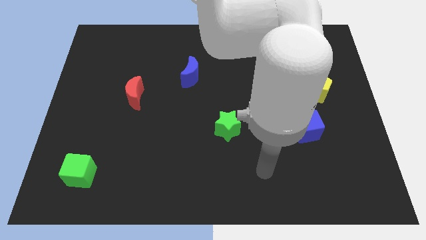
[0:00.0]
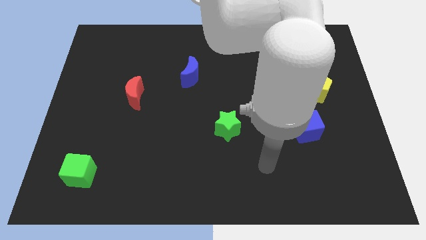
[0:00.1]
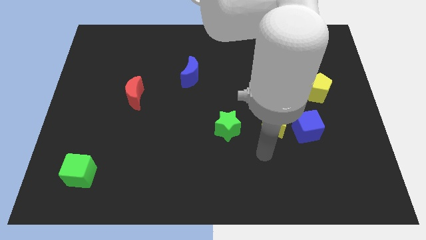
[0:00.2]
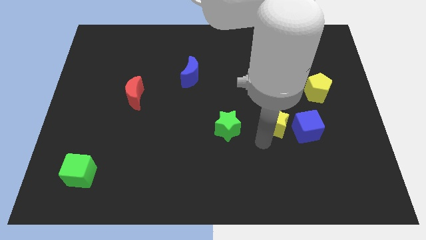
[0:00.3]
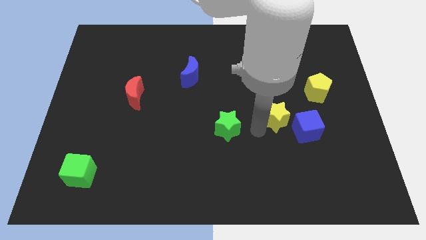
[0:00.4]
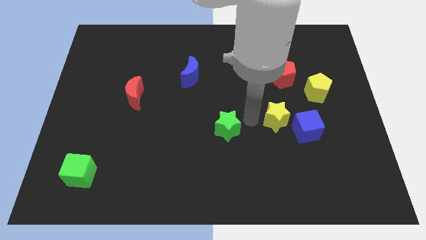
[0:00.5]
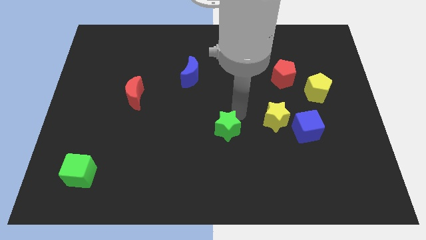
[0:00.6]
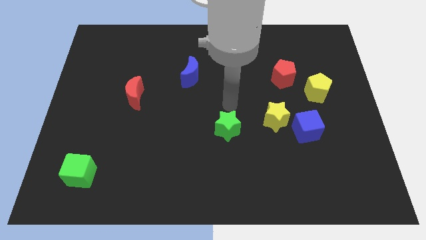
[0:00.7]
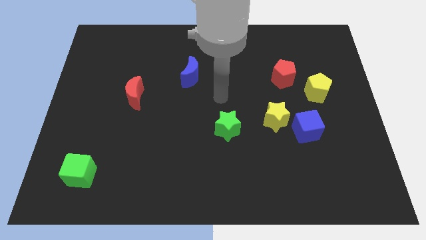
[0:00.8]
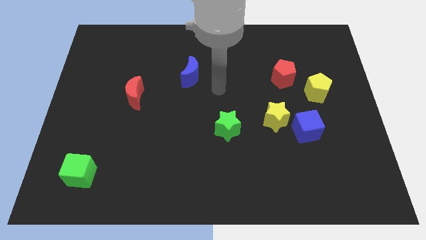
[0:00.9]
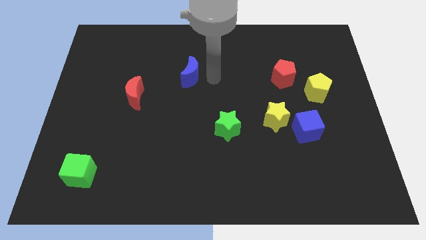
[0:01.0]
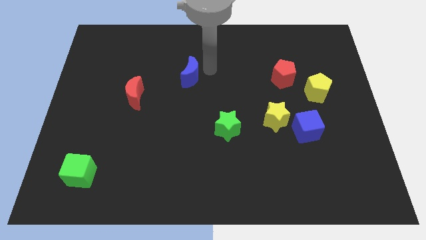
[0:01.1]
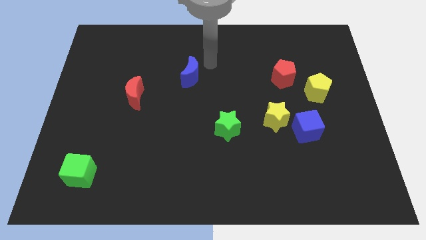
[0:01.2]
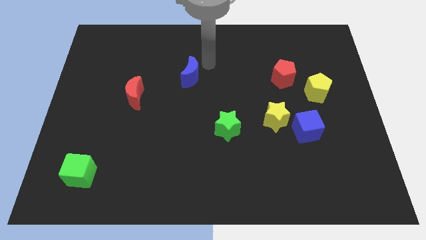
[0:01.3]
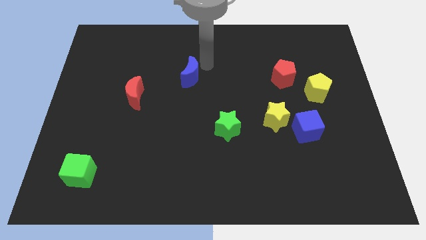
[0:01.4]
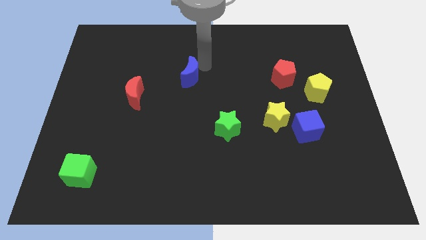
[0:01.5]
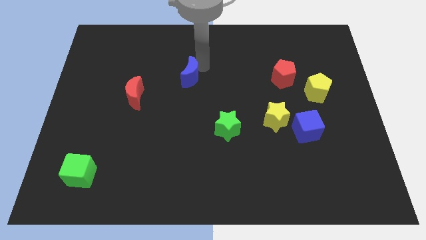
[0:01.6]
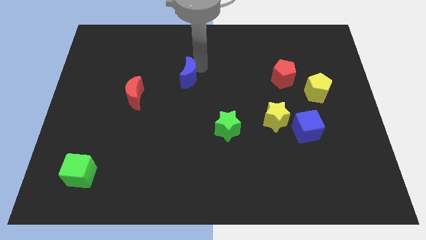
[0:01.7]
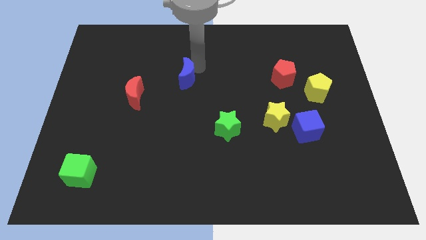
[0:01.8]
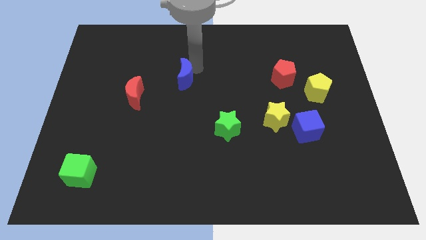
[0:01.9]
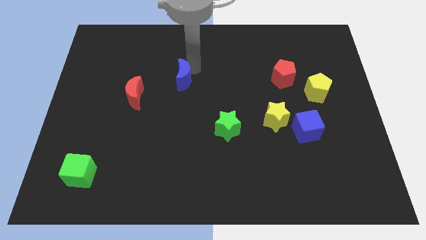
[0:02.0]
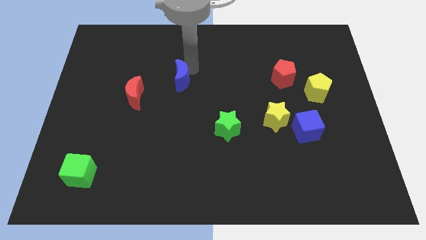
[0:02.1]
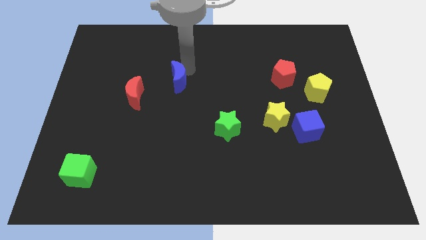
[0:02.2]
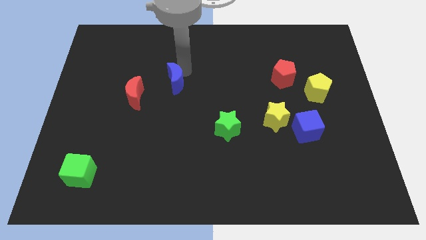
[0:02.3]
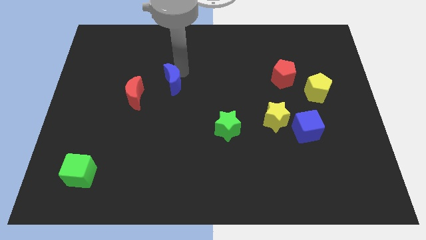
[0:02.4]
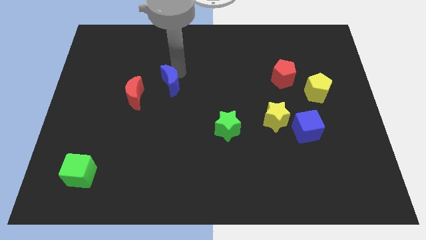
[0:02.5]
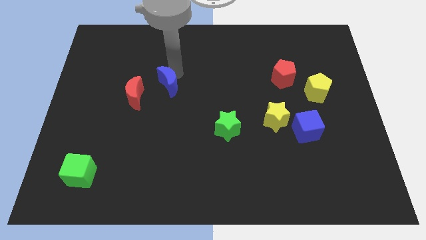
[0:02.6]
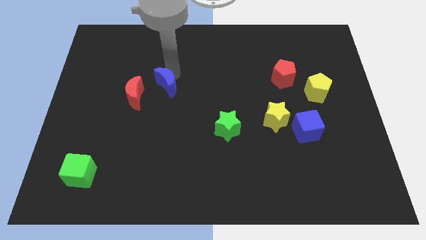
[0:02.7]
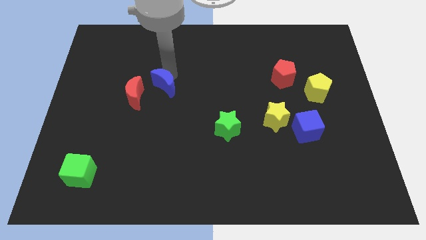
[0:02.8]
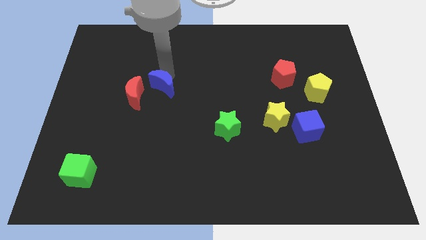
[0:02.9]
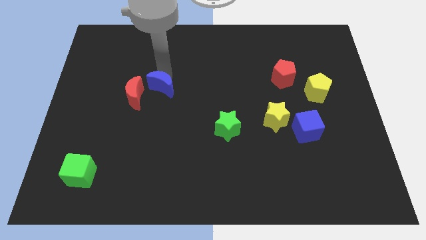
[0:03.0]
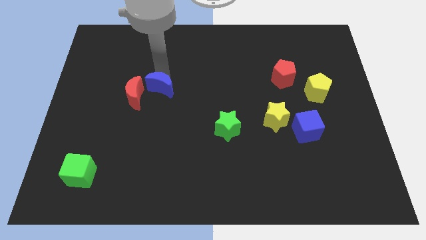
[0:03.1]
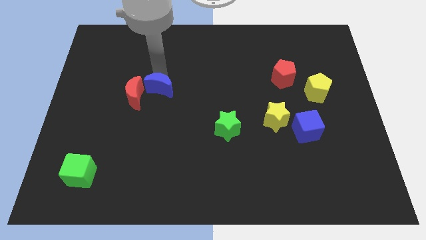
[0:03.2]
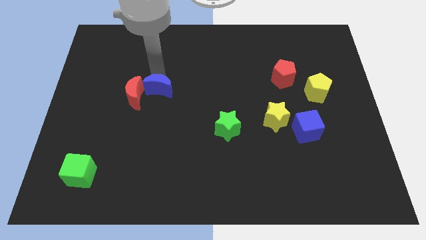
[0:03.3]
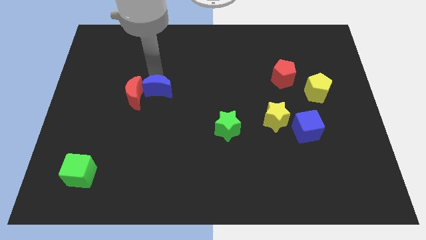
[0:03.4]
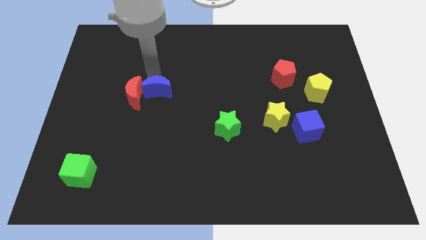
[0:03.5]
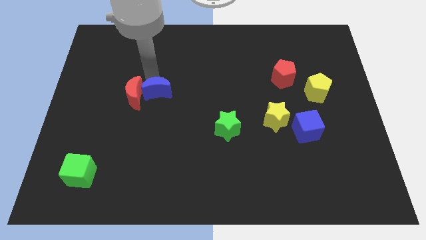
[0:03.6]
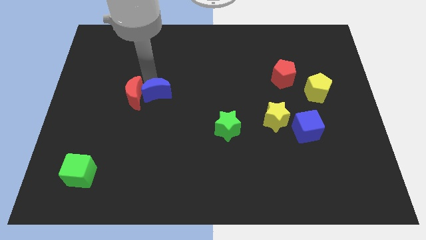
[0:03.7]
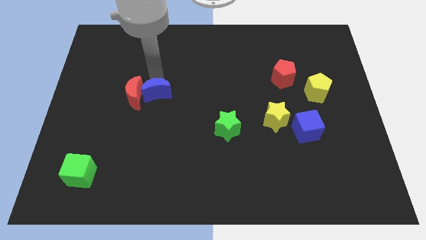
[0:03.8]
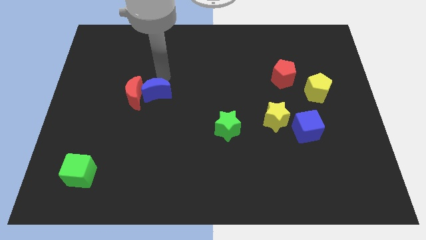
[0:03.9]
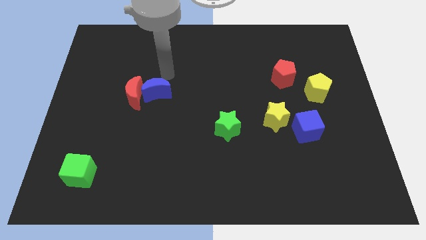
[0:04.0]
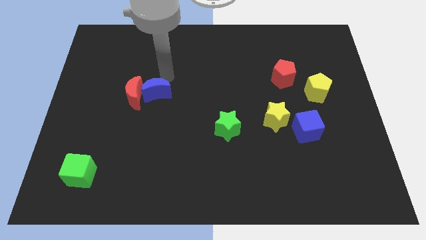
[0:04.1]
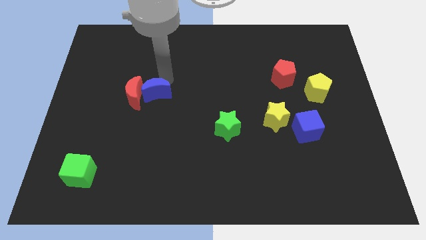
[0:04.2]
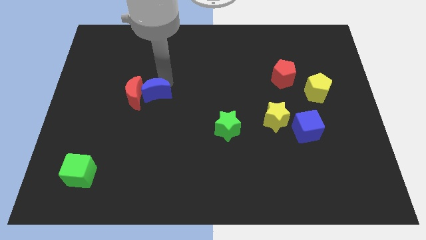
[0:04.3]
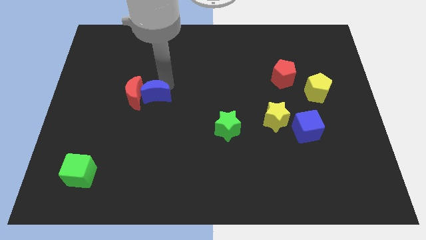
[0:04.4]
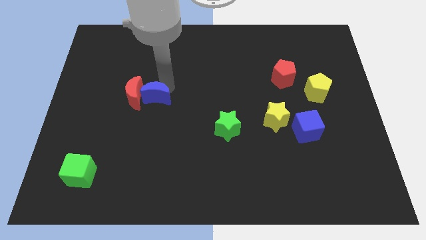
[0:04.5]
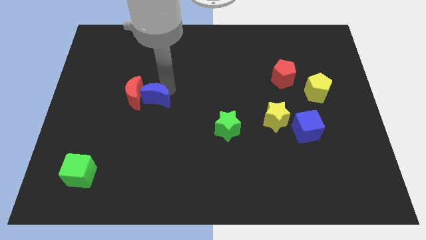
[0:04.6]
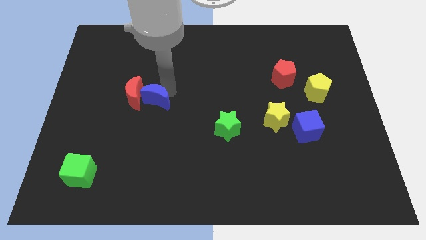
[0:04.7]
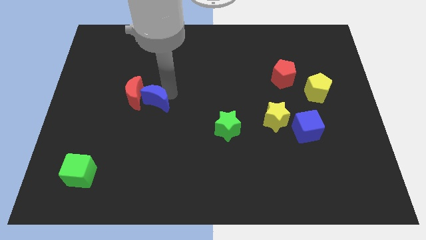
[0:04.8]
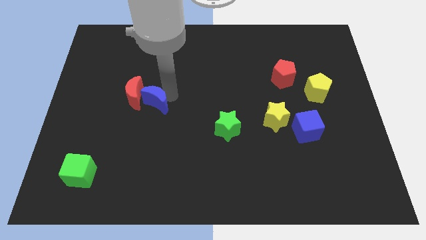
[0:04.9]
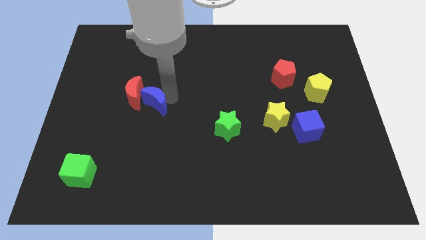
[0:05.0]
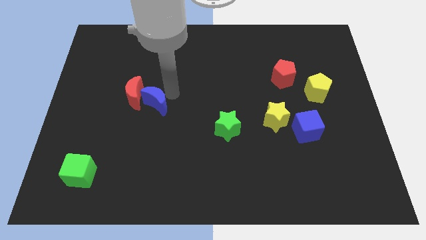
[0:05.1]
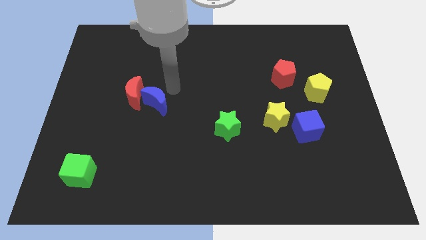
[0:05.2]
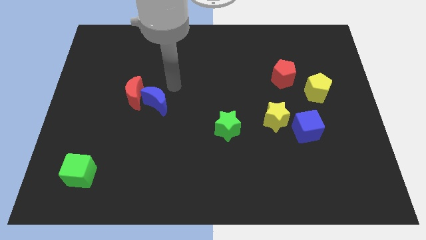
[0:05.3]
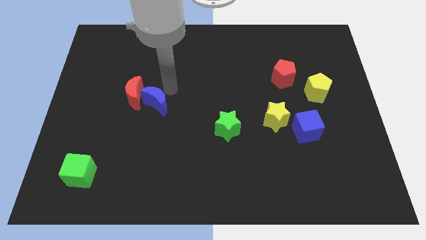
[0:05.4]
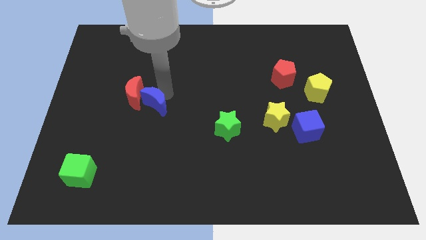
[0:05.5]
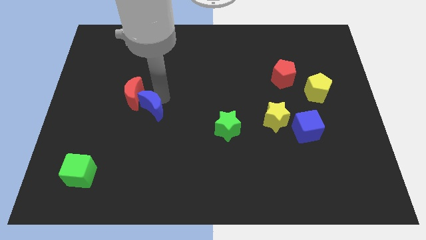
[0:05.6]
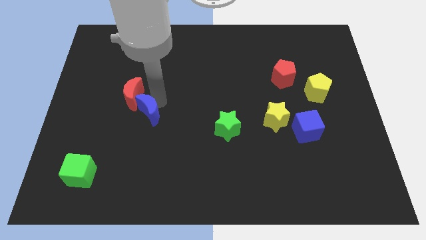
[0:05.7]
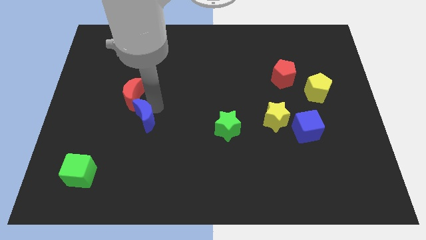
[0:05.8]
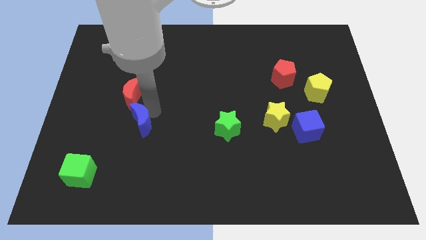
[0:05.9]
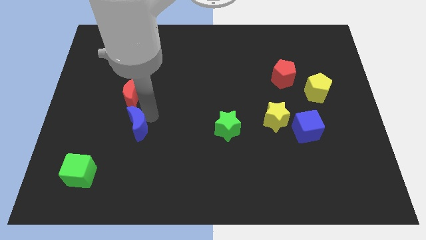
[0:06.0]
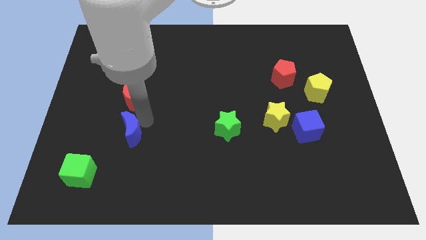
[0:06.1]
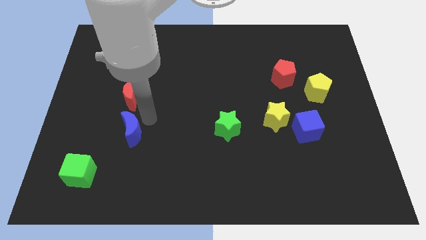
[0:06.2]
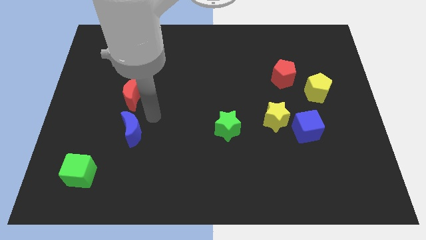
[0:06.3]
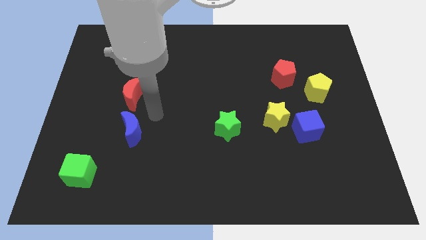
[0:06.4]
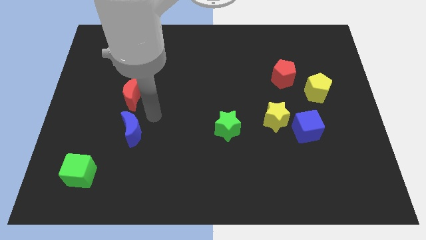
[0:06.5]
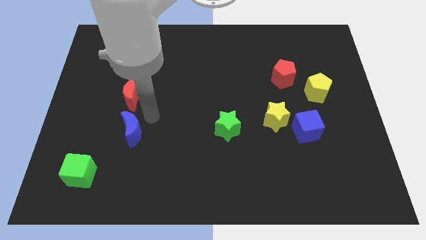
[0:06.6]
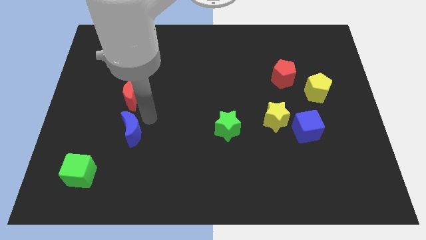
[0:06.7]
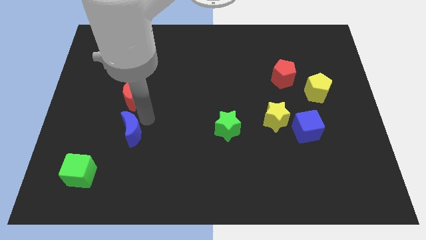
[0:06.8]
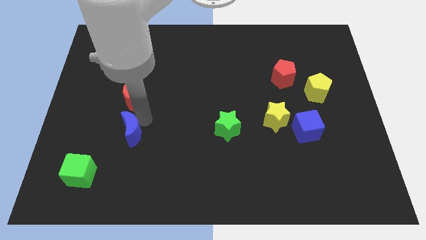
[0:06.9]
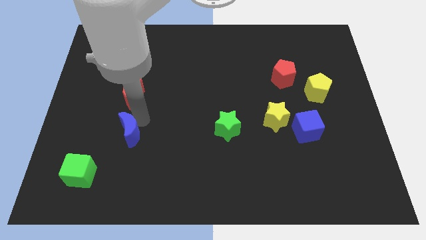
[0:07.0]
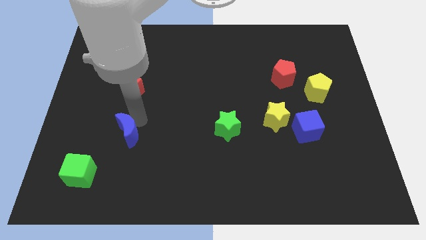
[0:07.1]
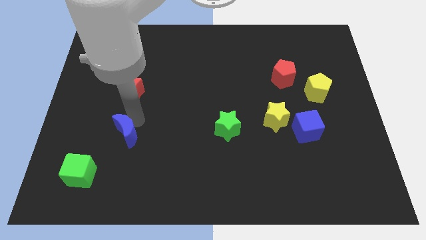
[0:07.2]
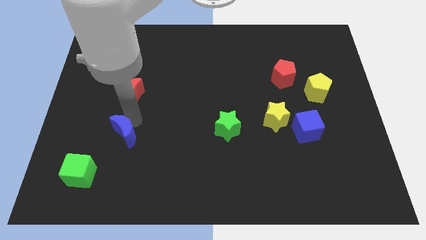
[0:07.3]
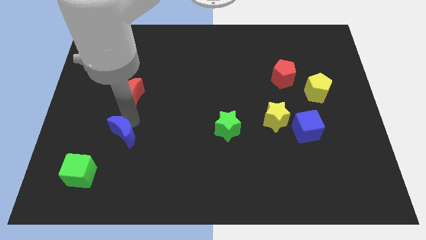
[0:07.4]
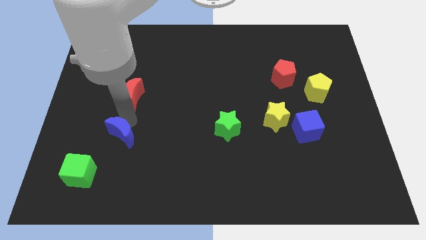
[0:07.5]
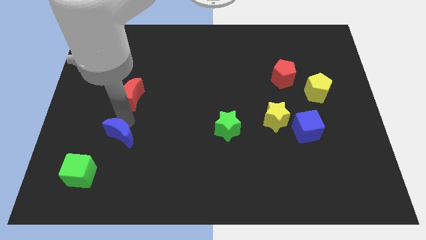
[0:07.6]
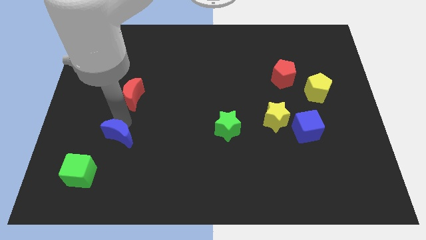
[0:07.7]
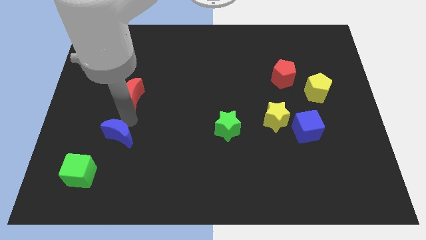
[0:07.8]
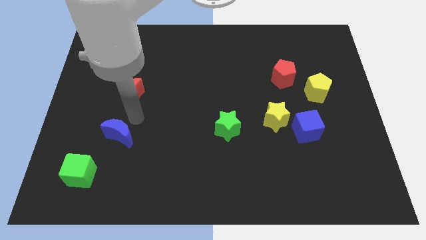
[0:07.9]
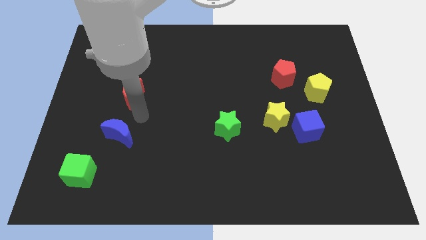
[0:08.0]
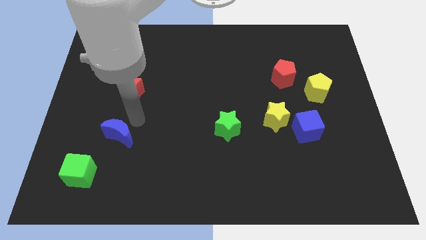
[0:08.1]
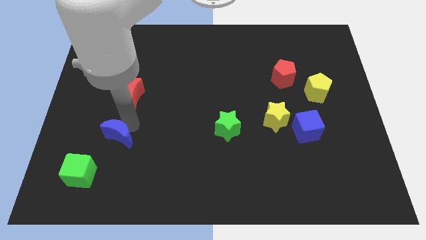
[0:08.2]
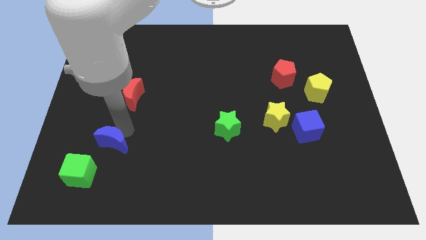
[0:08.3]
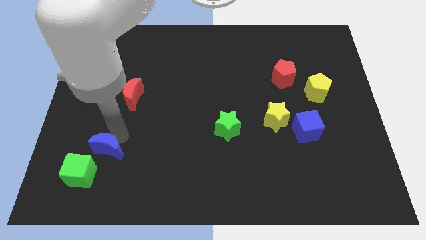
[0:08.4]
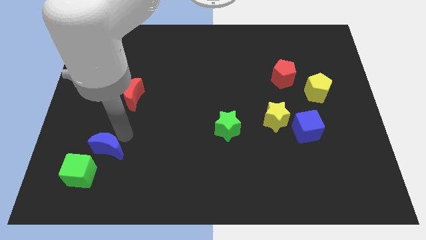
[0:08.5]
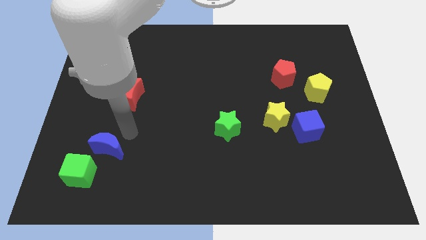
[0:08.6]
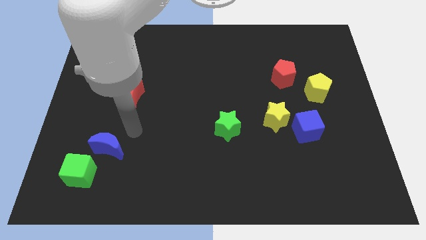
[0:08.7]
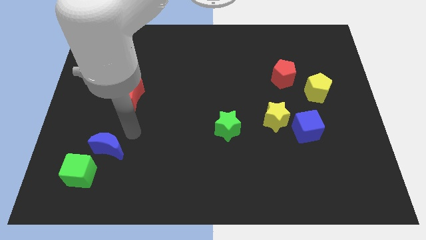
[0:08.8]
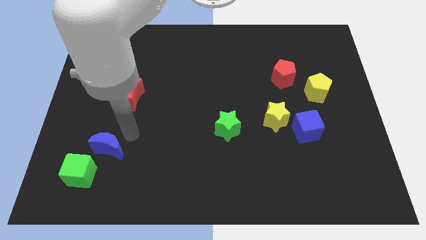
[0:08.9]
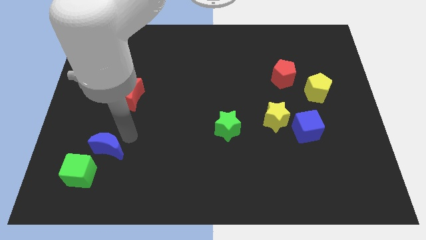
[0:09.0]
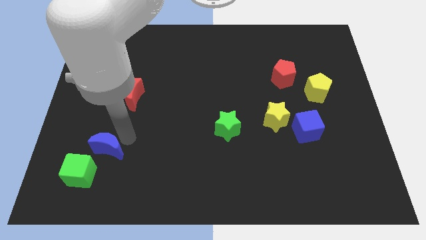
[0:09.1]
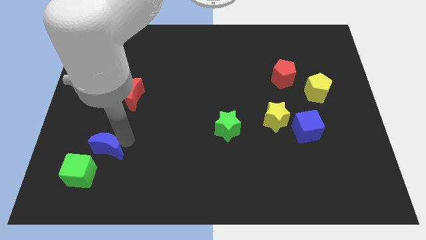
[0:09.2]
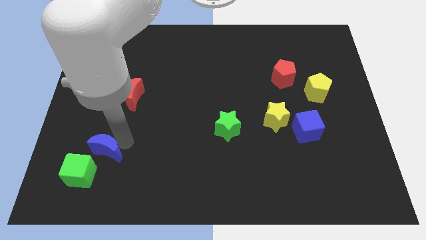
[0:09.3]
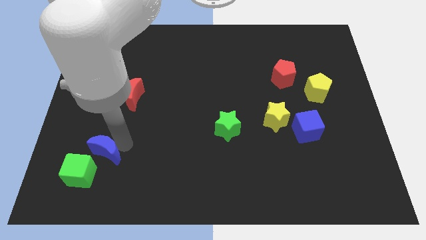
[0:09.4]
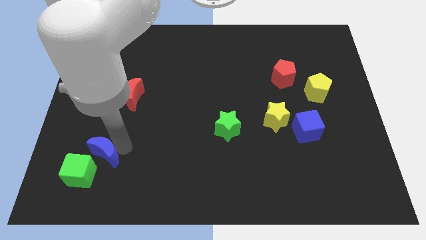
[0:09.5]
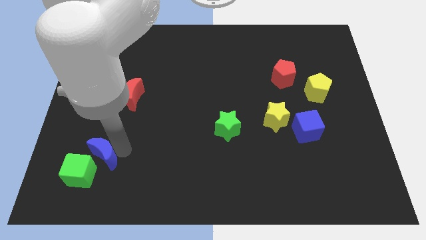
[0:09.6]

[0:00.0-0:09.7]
move the blue moon to the green cube
